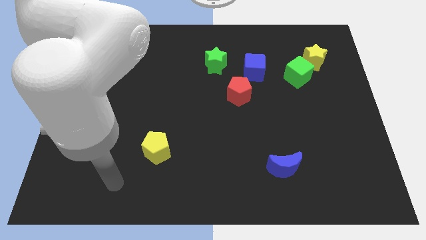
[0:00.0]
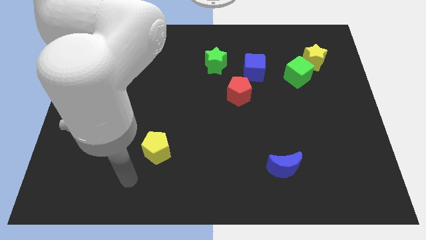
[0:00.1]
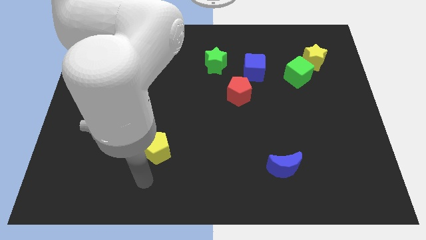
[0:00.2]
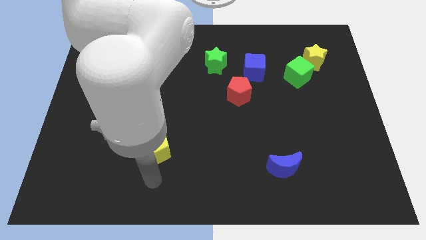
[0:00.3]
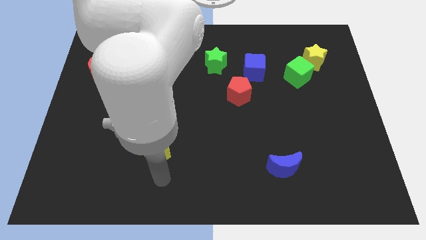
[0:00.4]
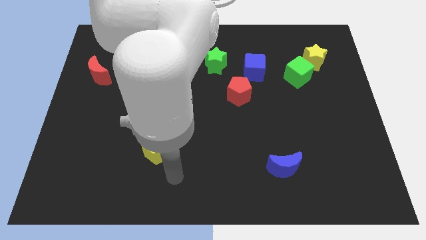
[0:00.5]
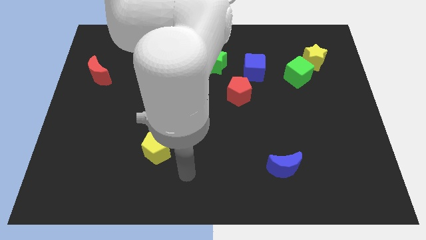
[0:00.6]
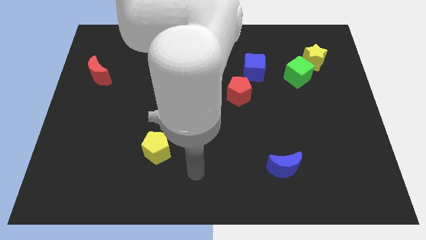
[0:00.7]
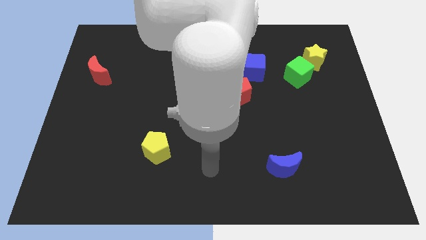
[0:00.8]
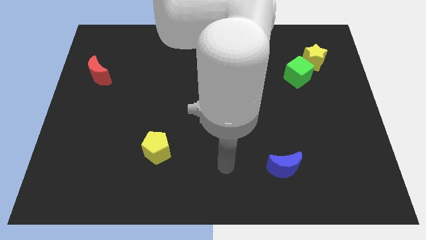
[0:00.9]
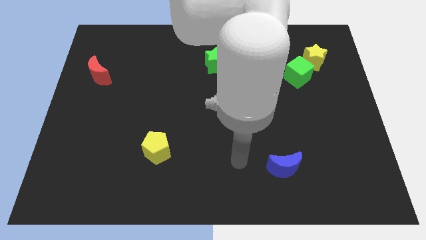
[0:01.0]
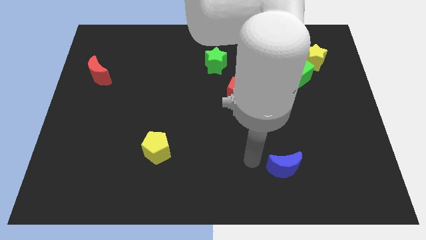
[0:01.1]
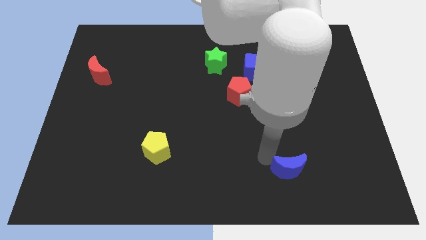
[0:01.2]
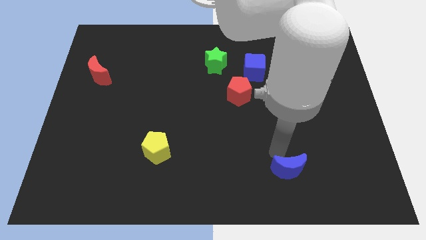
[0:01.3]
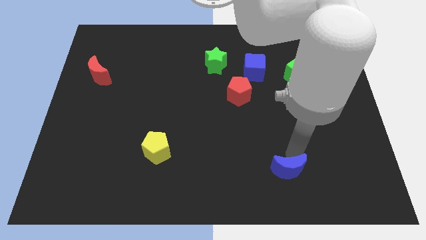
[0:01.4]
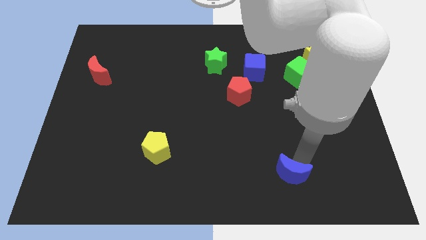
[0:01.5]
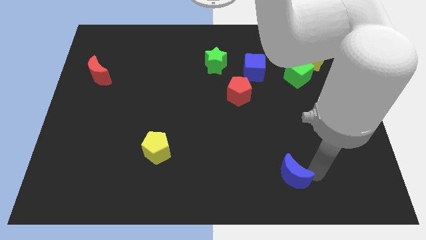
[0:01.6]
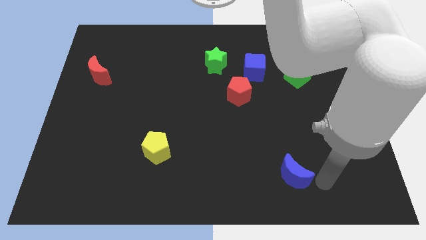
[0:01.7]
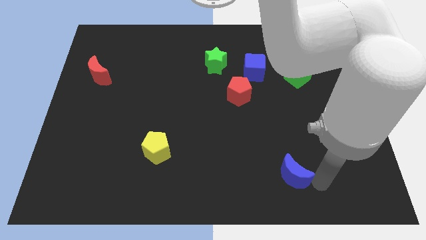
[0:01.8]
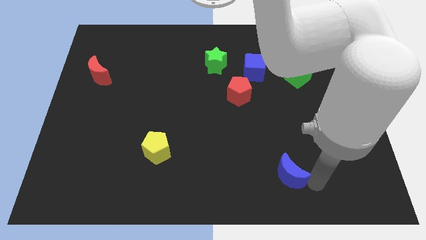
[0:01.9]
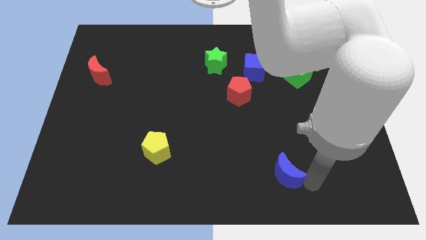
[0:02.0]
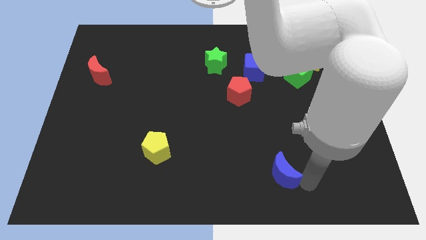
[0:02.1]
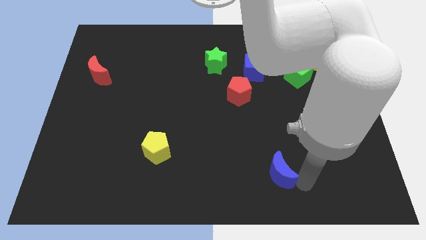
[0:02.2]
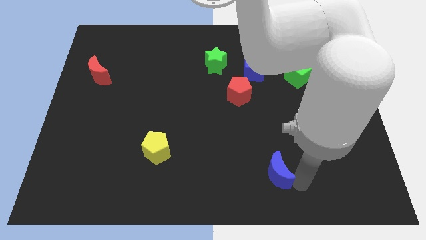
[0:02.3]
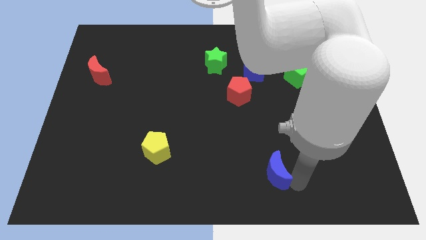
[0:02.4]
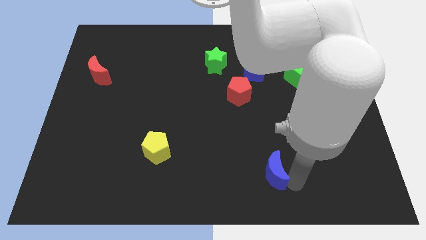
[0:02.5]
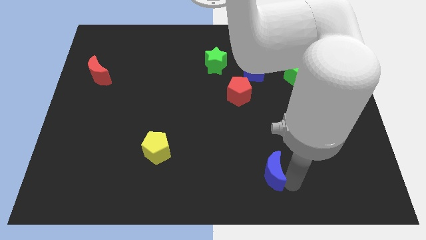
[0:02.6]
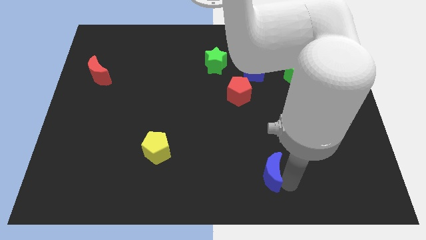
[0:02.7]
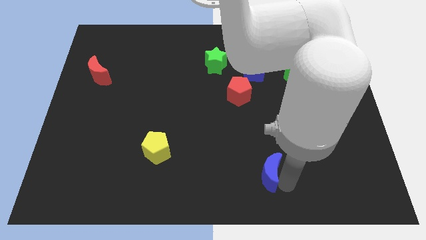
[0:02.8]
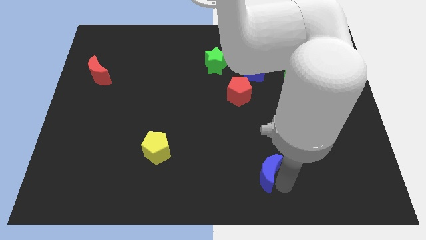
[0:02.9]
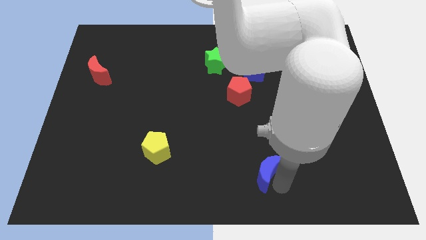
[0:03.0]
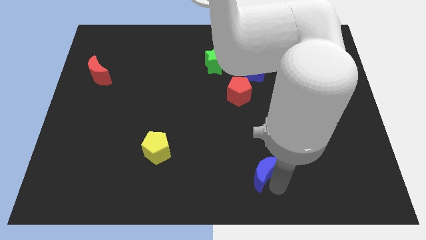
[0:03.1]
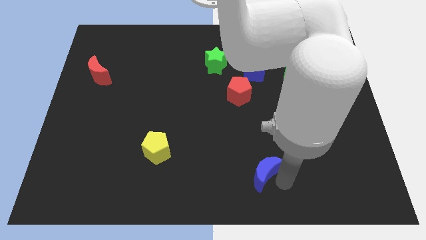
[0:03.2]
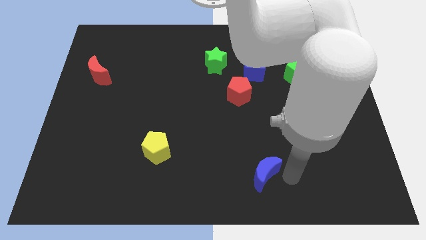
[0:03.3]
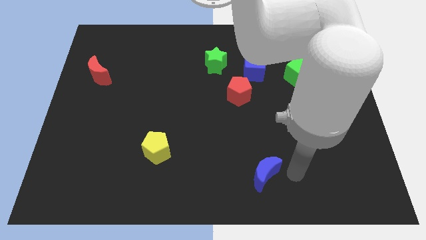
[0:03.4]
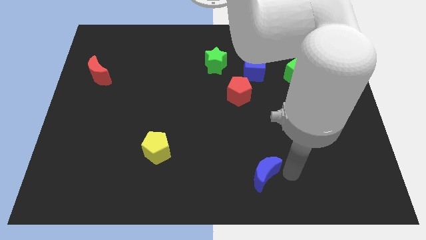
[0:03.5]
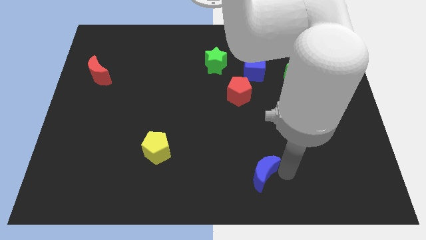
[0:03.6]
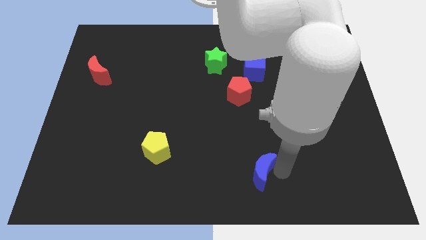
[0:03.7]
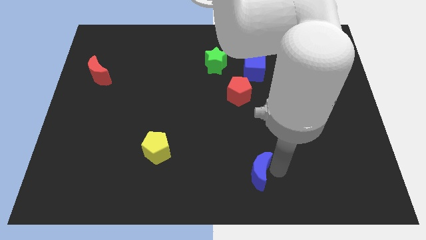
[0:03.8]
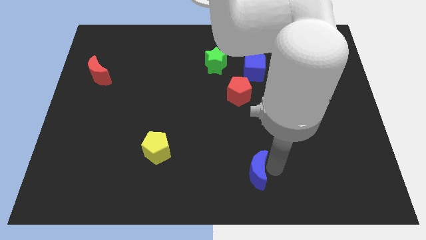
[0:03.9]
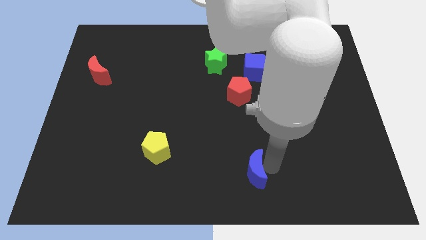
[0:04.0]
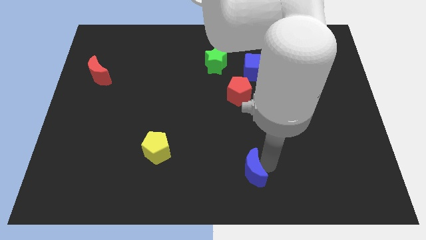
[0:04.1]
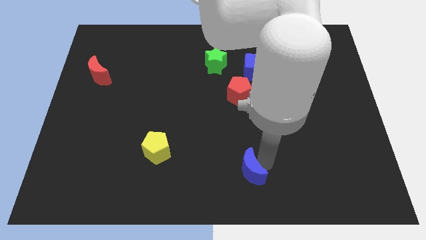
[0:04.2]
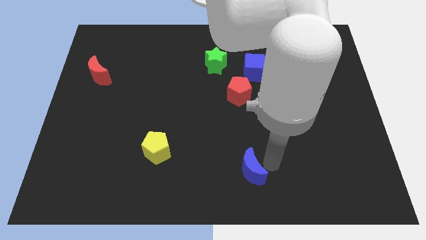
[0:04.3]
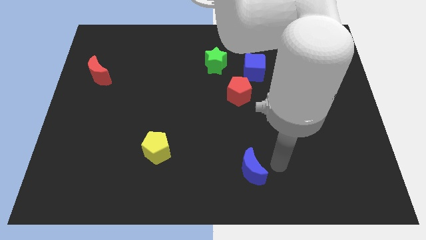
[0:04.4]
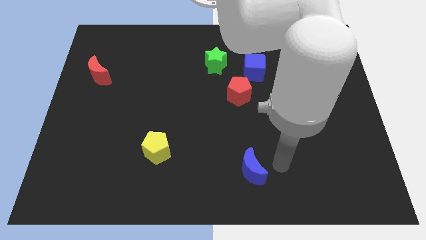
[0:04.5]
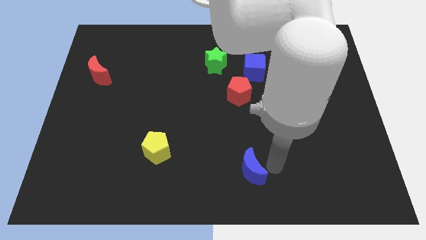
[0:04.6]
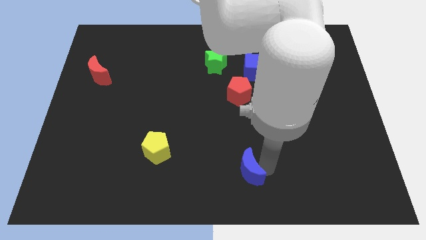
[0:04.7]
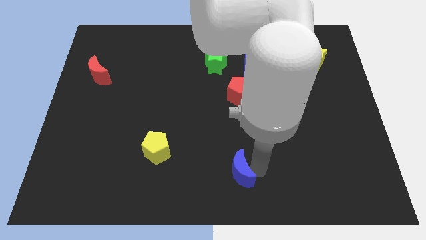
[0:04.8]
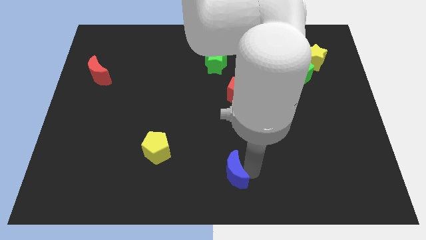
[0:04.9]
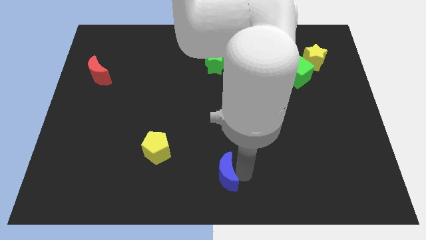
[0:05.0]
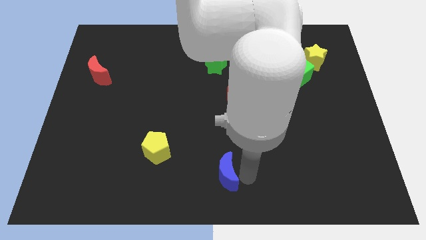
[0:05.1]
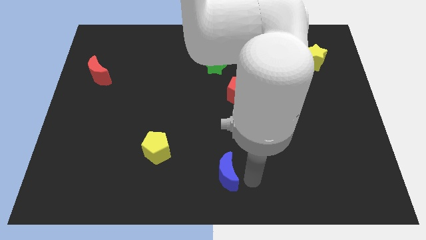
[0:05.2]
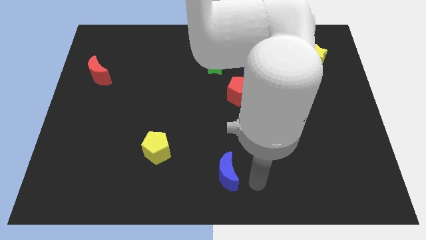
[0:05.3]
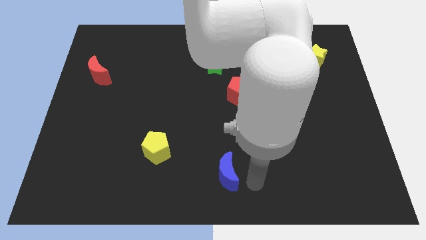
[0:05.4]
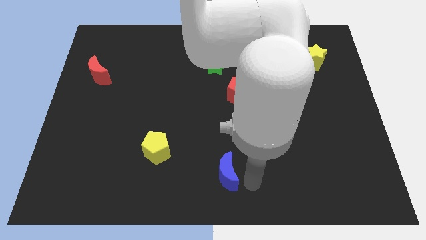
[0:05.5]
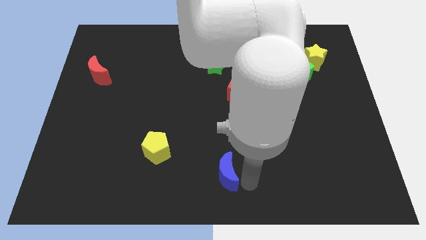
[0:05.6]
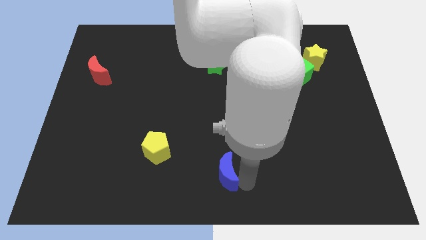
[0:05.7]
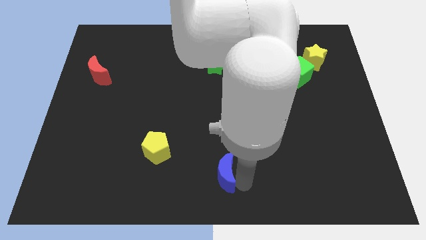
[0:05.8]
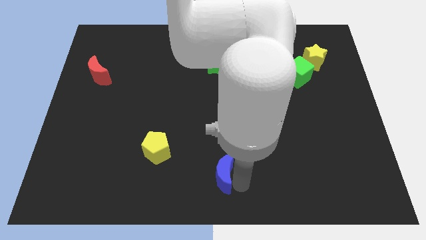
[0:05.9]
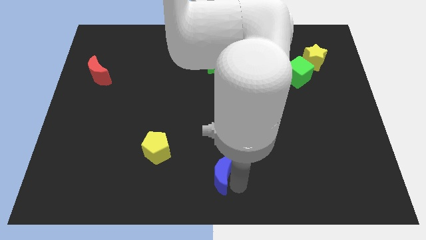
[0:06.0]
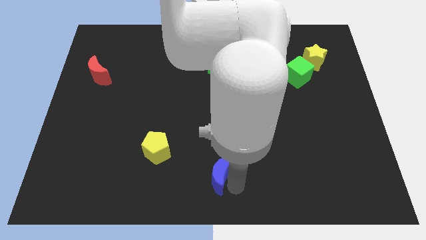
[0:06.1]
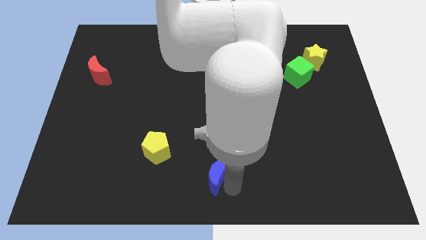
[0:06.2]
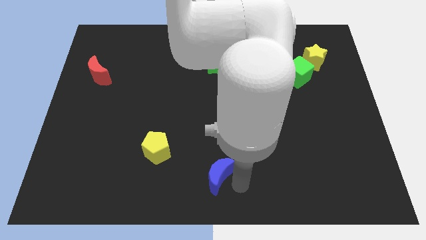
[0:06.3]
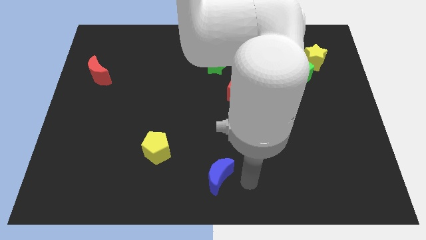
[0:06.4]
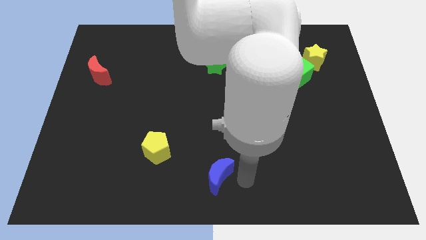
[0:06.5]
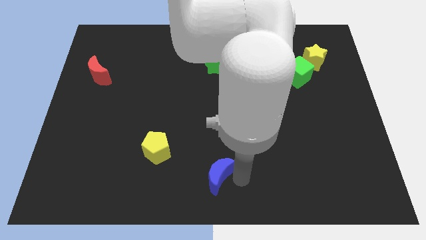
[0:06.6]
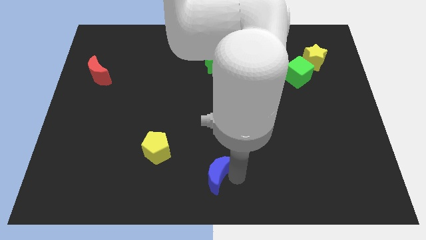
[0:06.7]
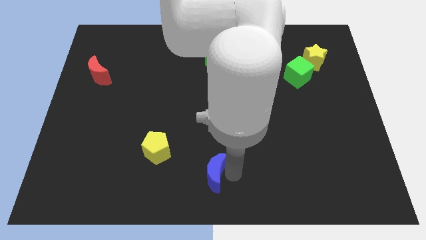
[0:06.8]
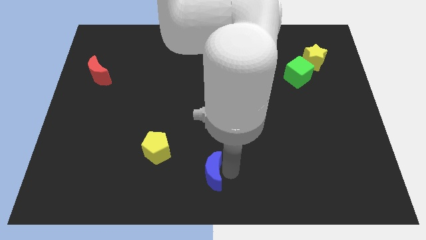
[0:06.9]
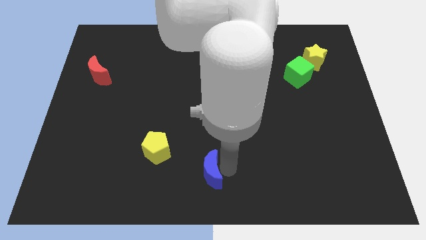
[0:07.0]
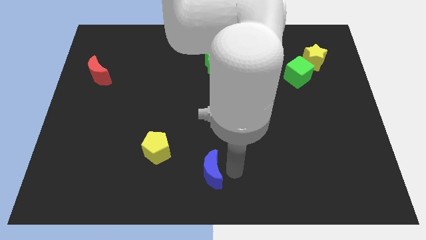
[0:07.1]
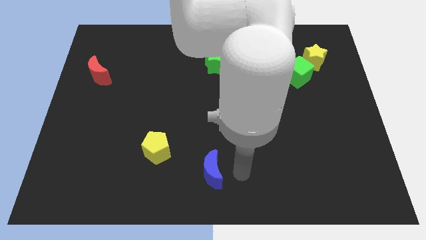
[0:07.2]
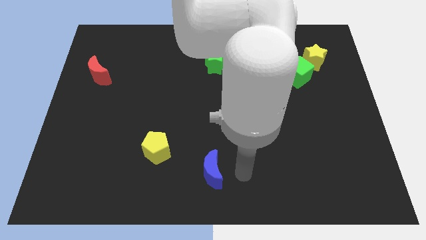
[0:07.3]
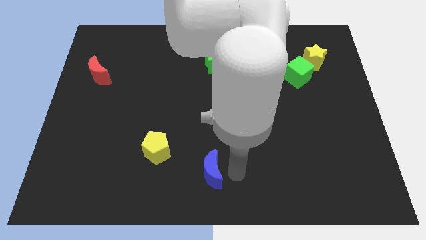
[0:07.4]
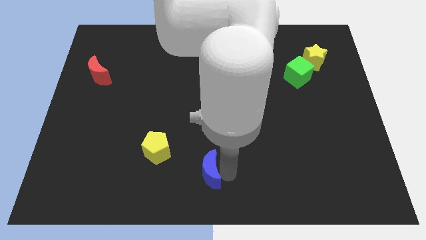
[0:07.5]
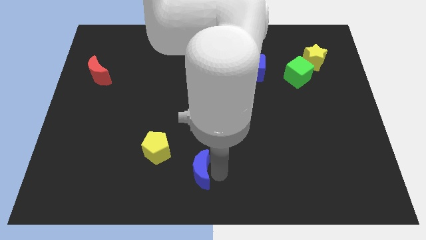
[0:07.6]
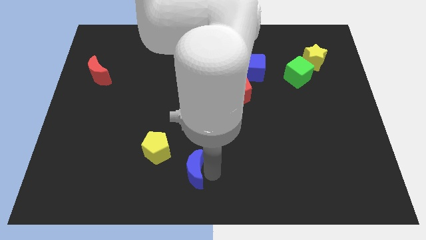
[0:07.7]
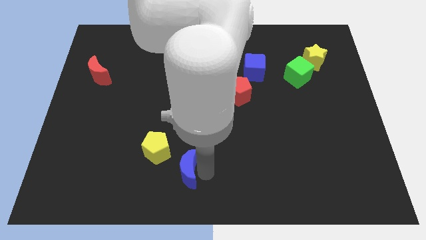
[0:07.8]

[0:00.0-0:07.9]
push the blue moon left
